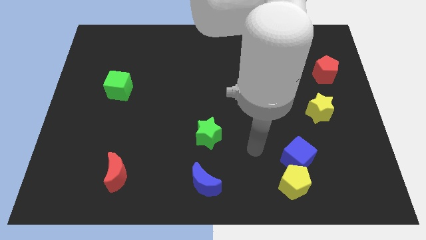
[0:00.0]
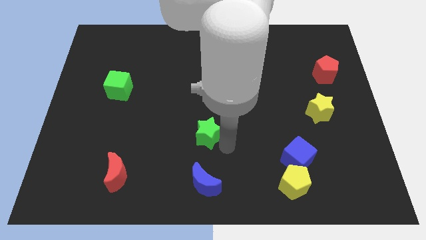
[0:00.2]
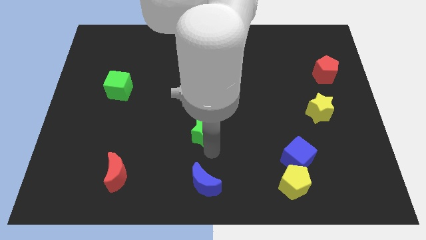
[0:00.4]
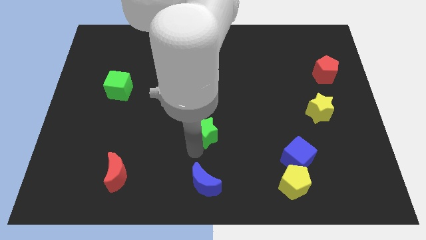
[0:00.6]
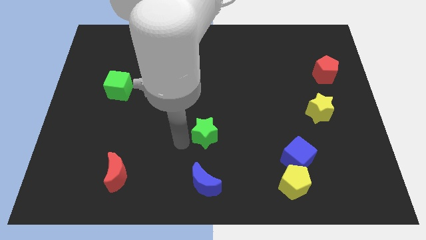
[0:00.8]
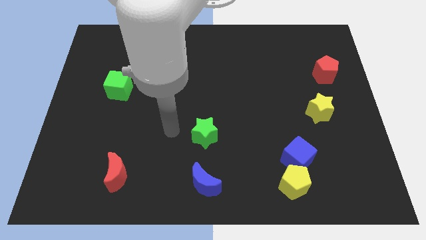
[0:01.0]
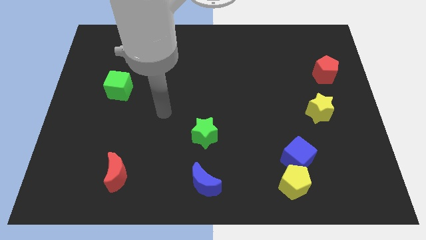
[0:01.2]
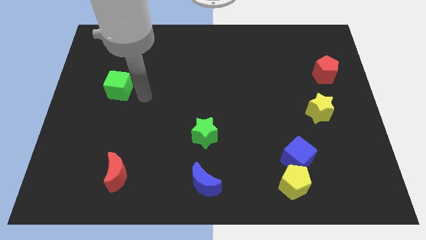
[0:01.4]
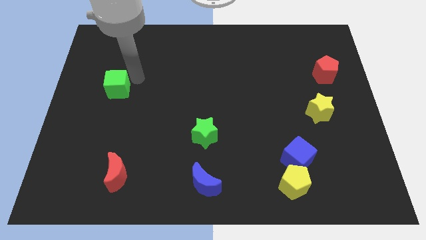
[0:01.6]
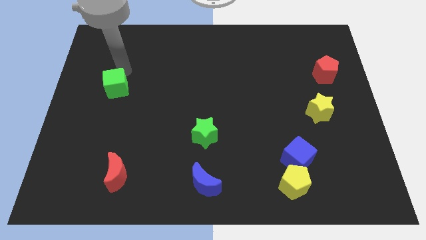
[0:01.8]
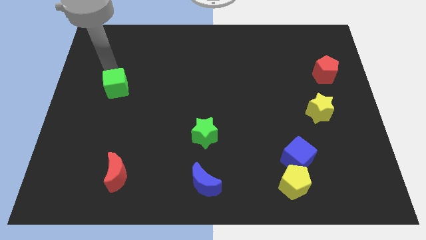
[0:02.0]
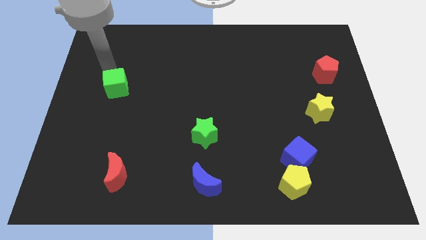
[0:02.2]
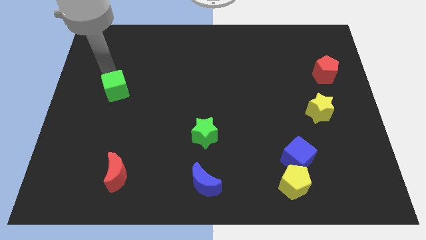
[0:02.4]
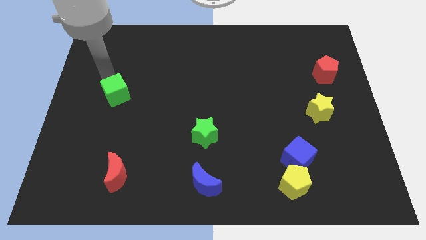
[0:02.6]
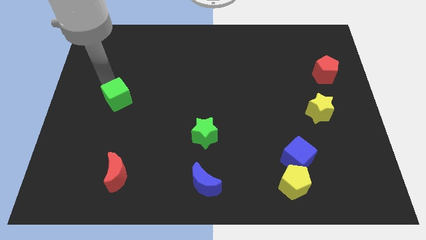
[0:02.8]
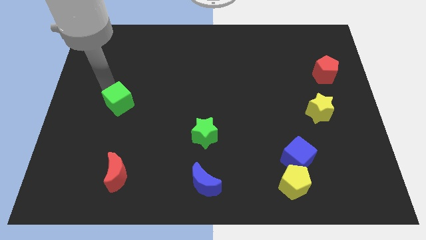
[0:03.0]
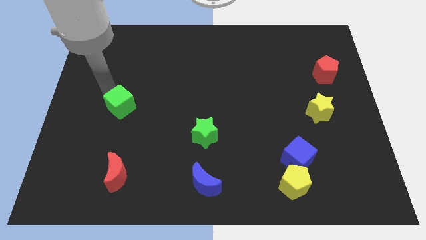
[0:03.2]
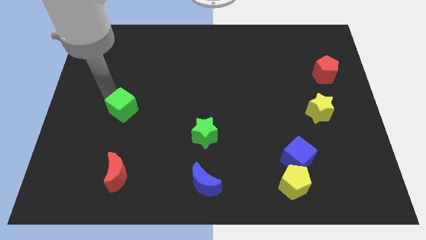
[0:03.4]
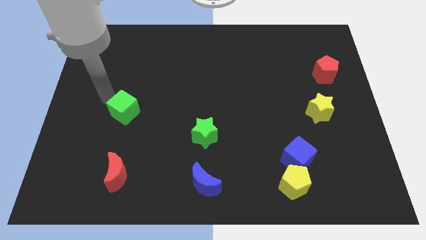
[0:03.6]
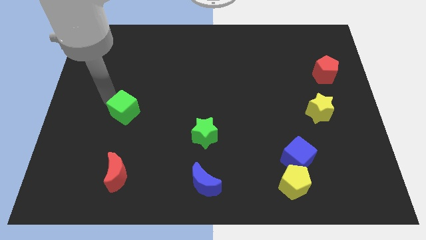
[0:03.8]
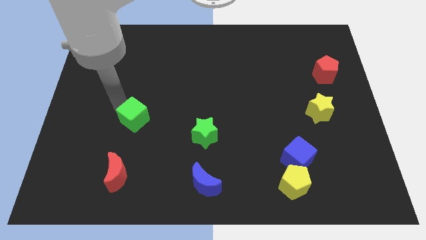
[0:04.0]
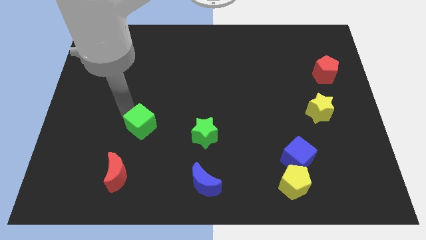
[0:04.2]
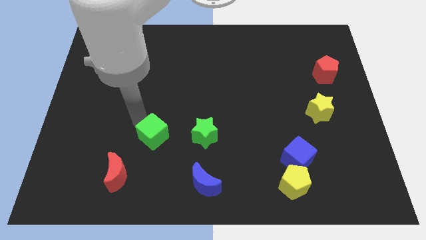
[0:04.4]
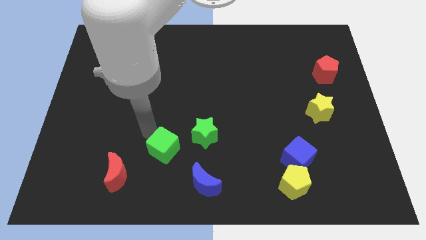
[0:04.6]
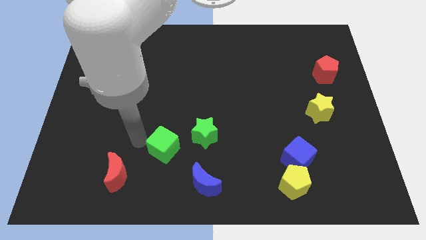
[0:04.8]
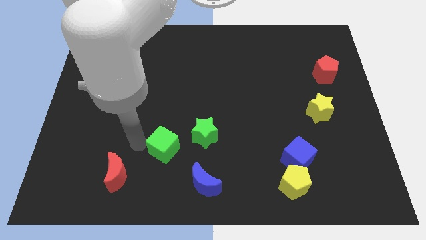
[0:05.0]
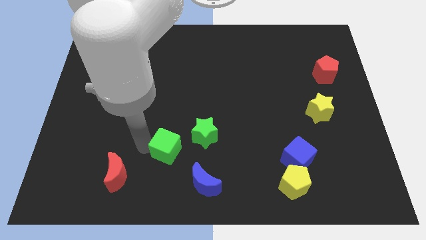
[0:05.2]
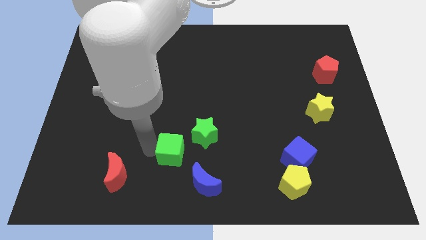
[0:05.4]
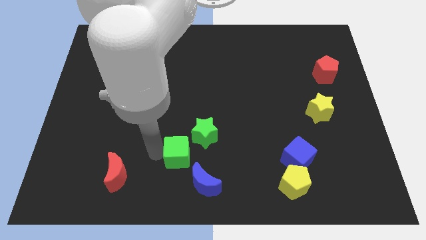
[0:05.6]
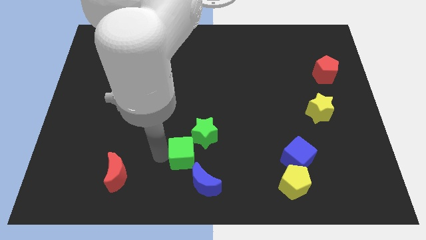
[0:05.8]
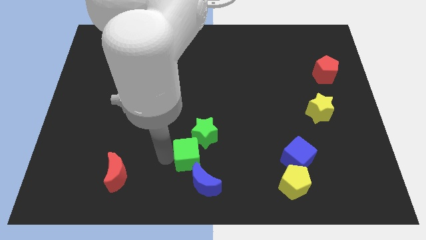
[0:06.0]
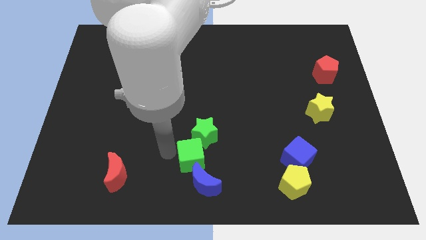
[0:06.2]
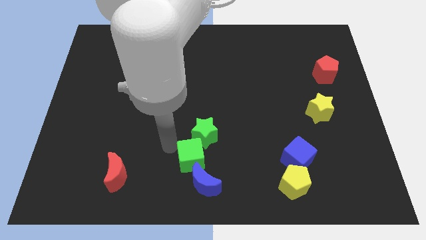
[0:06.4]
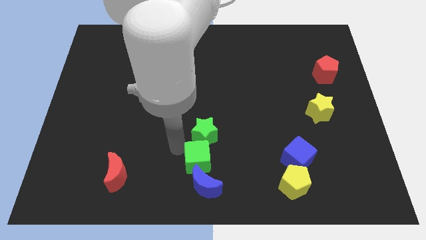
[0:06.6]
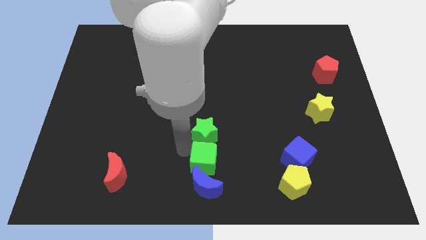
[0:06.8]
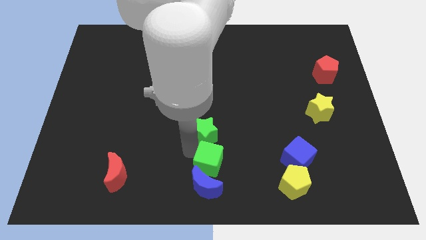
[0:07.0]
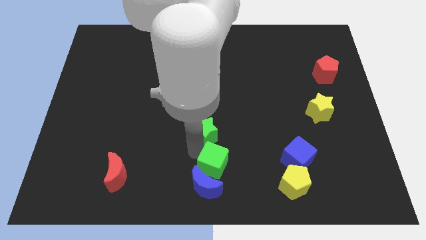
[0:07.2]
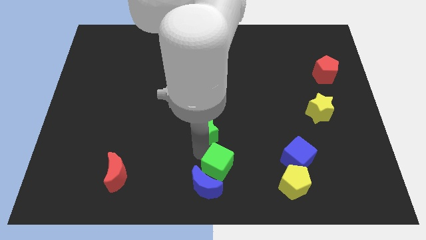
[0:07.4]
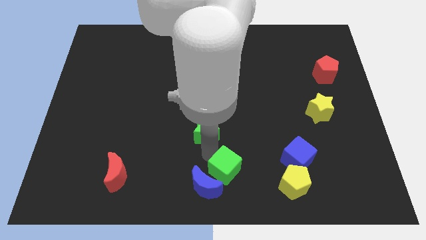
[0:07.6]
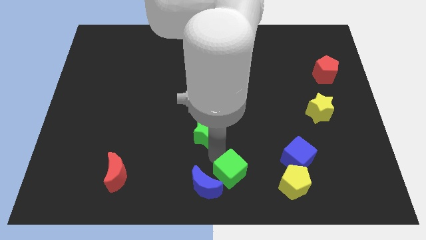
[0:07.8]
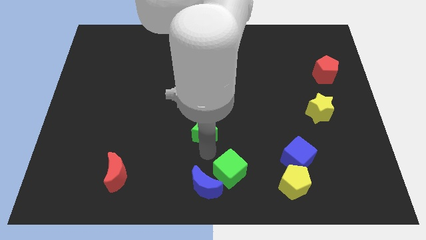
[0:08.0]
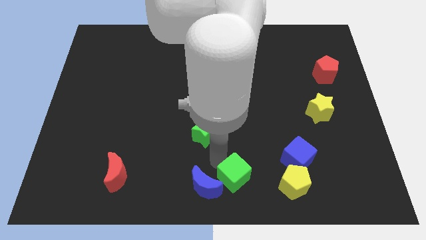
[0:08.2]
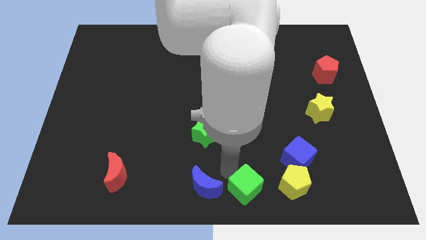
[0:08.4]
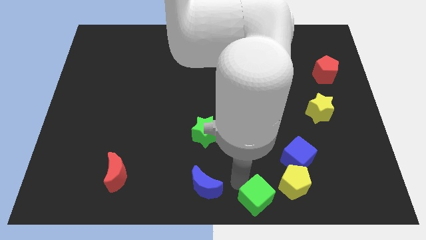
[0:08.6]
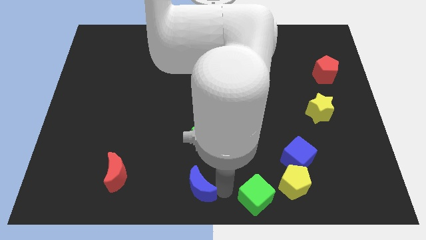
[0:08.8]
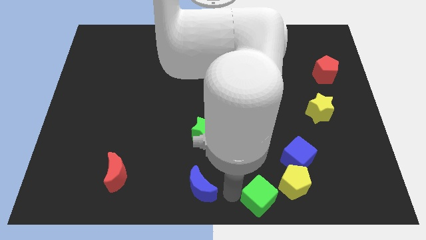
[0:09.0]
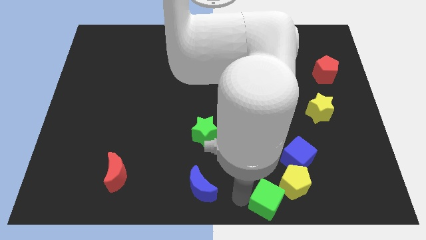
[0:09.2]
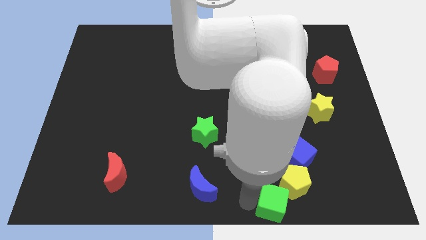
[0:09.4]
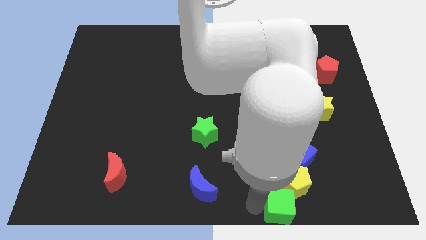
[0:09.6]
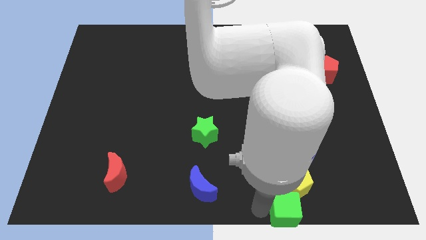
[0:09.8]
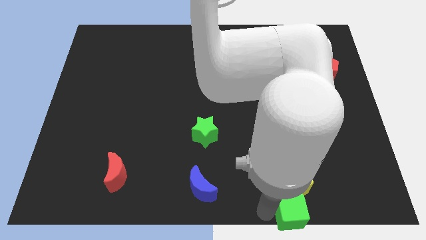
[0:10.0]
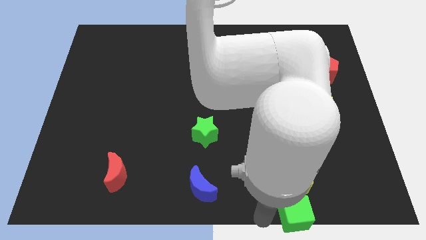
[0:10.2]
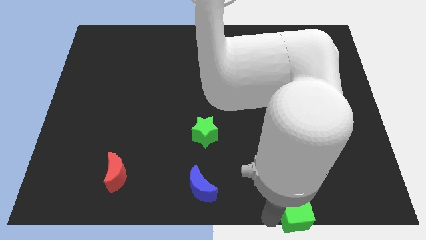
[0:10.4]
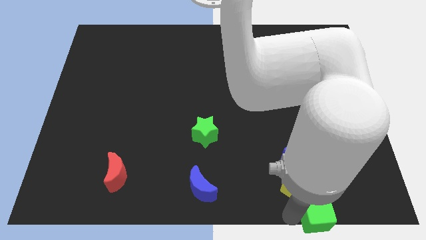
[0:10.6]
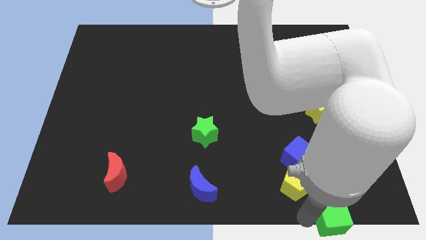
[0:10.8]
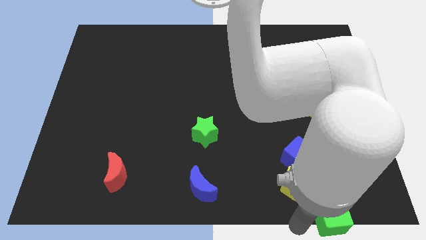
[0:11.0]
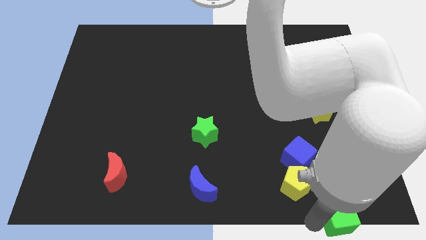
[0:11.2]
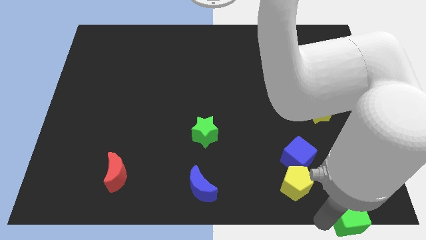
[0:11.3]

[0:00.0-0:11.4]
push the green cube to the bottom right of the board

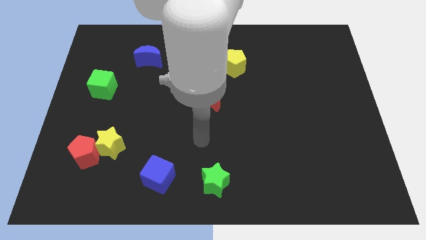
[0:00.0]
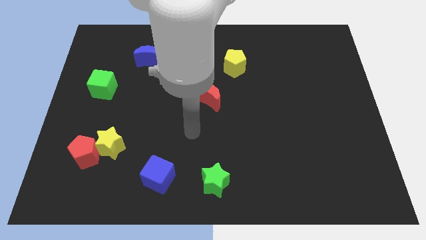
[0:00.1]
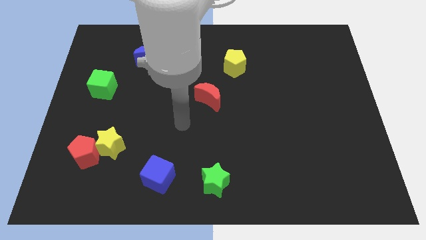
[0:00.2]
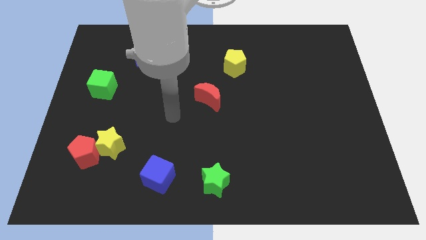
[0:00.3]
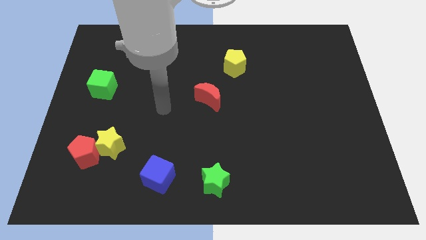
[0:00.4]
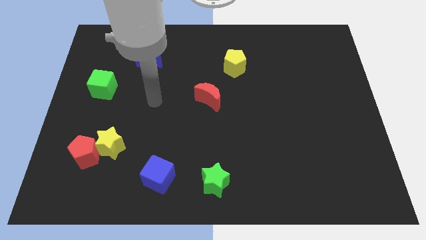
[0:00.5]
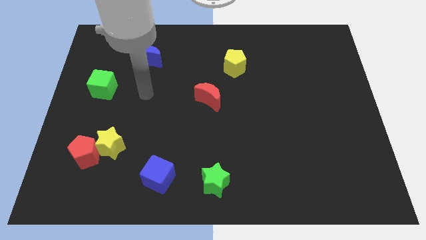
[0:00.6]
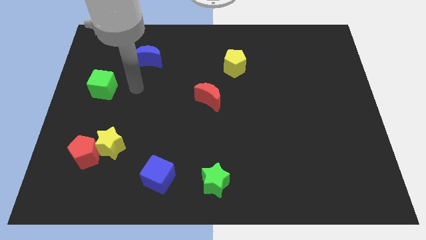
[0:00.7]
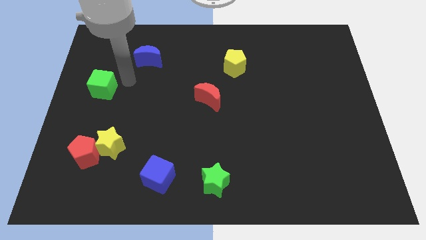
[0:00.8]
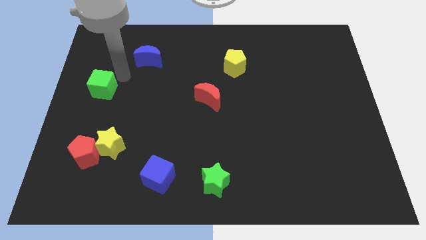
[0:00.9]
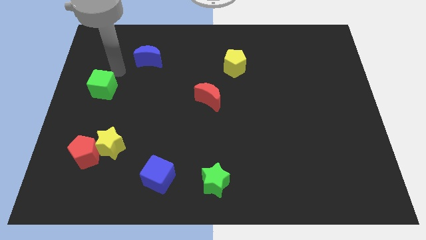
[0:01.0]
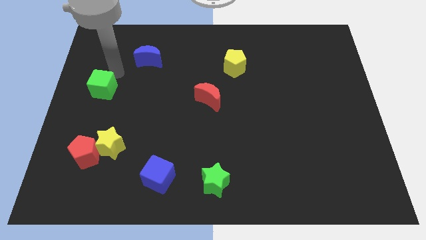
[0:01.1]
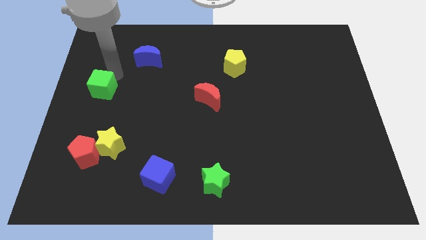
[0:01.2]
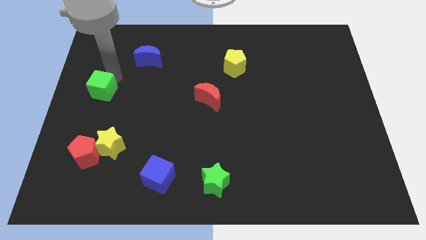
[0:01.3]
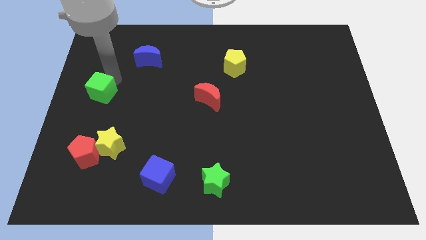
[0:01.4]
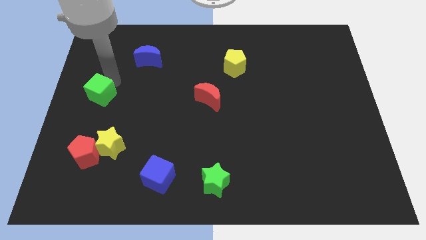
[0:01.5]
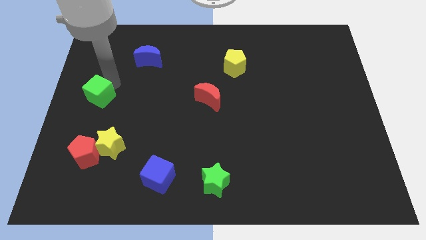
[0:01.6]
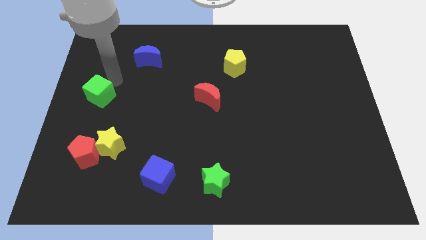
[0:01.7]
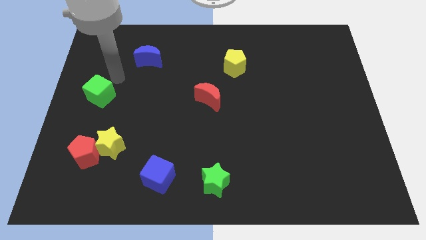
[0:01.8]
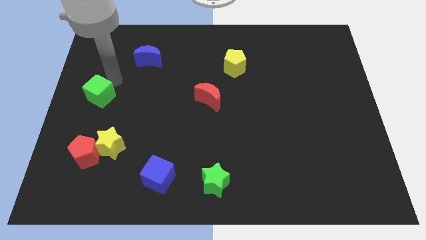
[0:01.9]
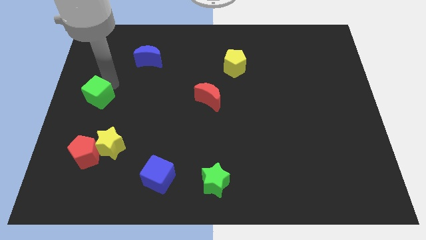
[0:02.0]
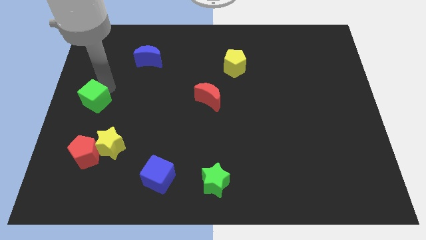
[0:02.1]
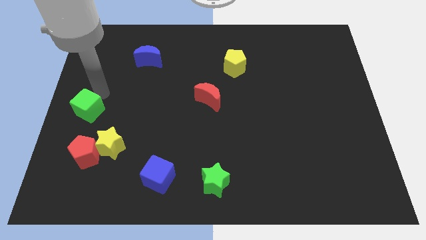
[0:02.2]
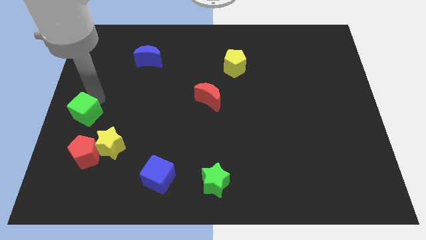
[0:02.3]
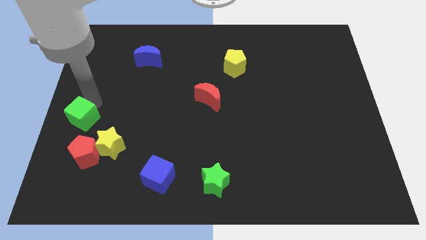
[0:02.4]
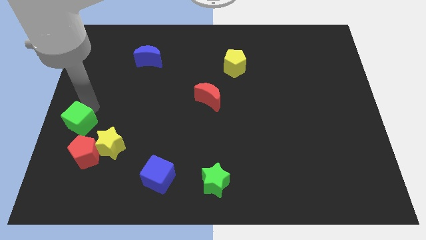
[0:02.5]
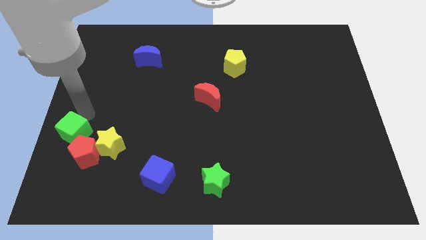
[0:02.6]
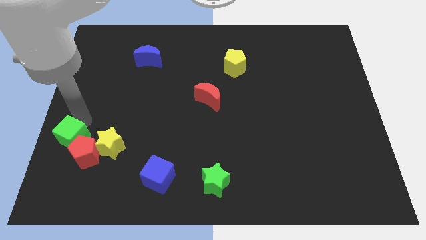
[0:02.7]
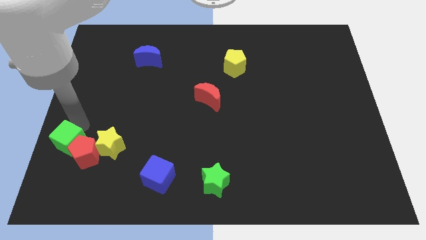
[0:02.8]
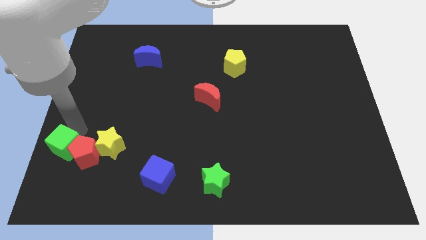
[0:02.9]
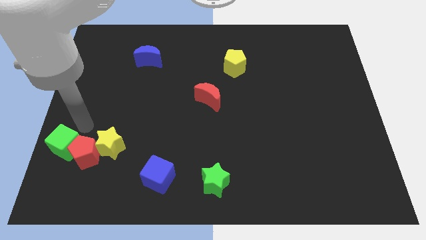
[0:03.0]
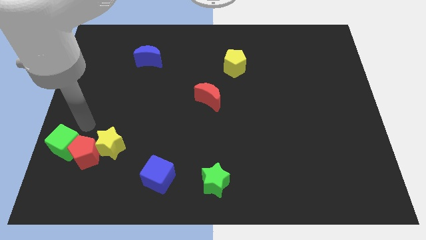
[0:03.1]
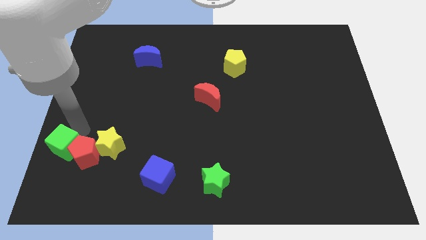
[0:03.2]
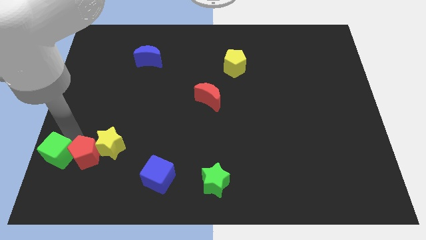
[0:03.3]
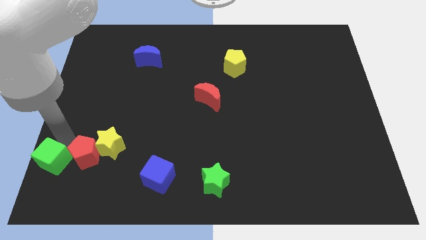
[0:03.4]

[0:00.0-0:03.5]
put the green cube to the bottom left
